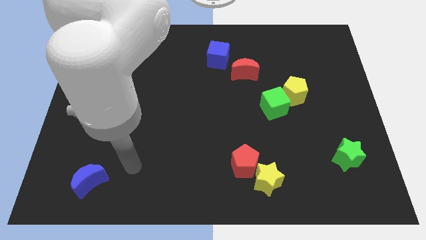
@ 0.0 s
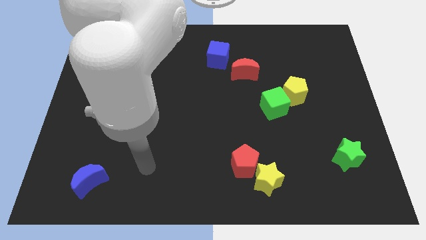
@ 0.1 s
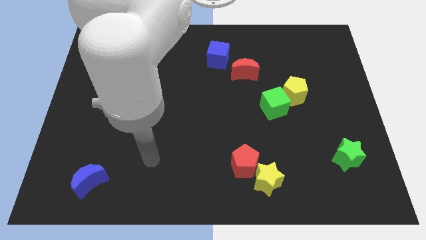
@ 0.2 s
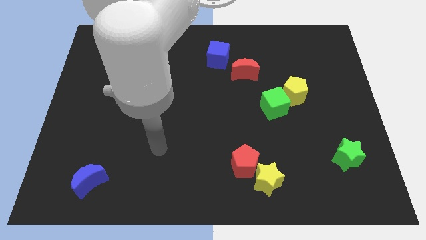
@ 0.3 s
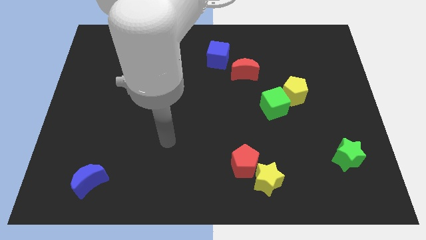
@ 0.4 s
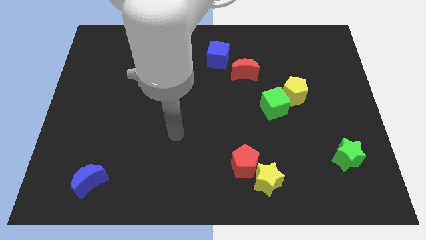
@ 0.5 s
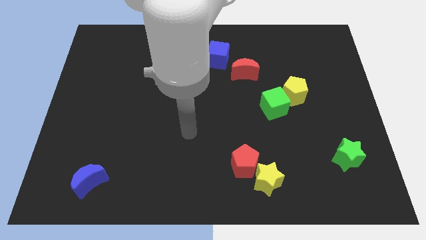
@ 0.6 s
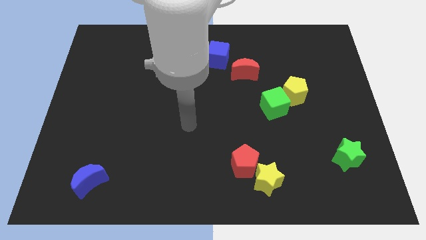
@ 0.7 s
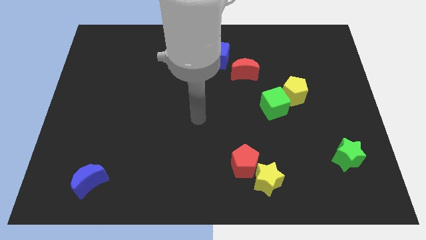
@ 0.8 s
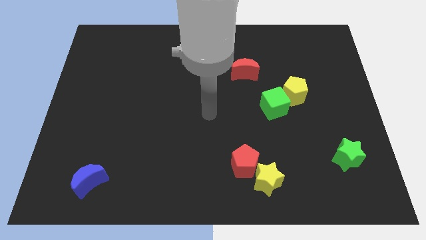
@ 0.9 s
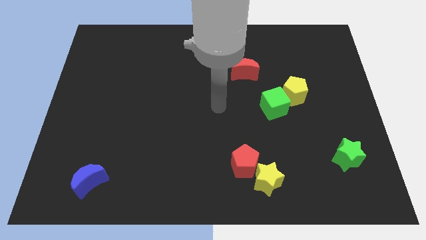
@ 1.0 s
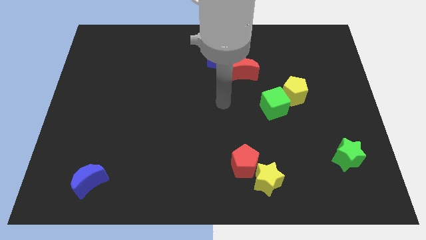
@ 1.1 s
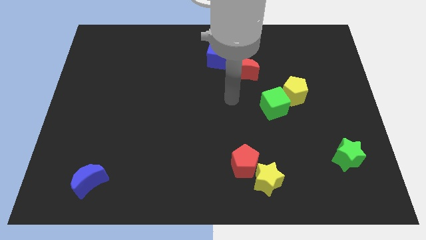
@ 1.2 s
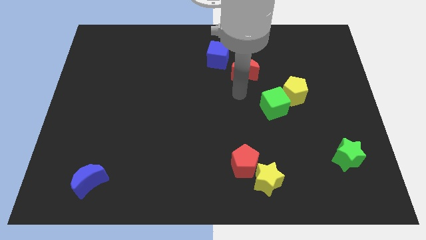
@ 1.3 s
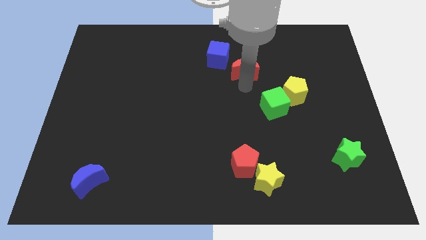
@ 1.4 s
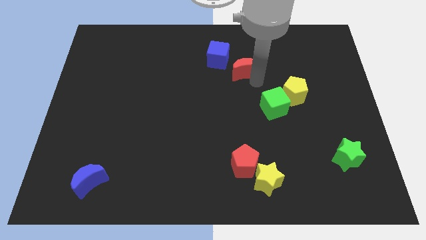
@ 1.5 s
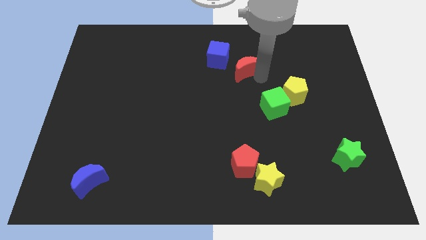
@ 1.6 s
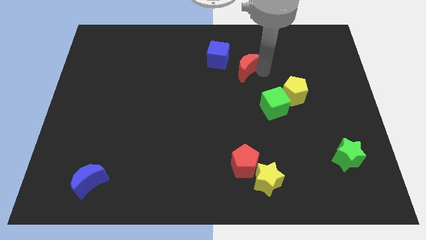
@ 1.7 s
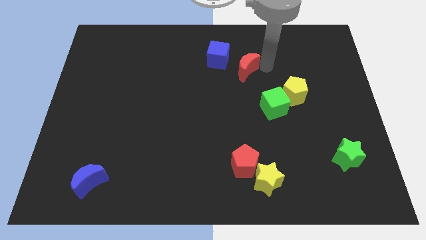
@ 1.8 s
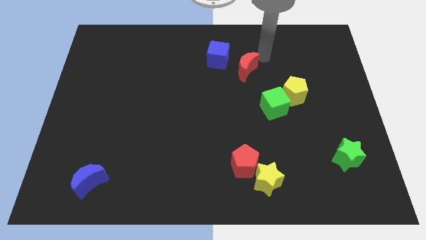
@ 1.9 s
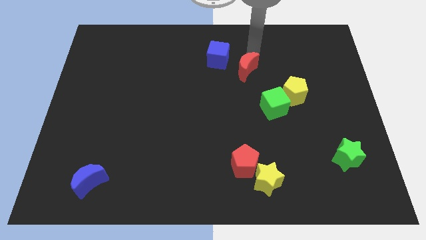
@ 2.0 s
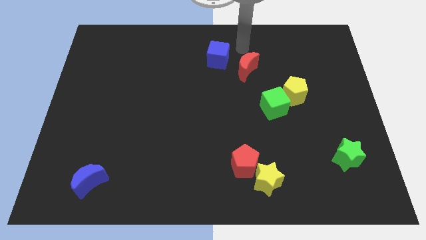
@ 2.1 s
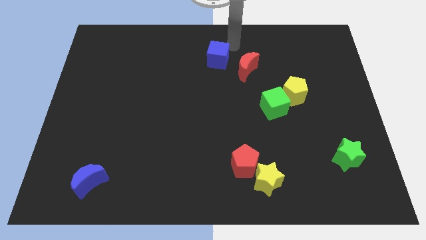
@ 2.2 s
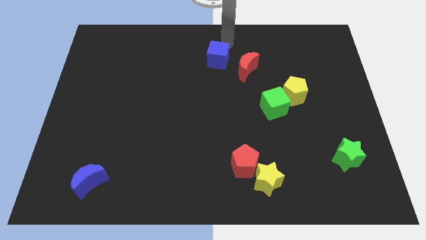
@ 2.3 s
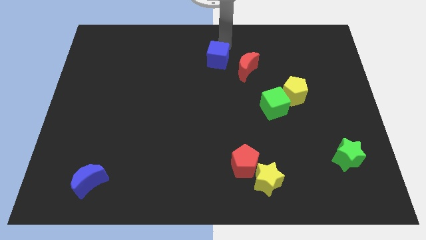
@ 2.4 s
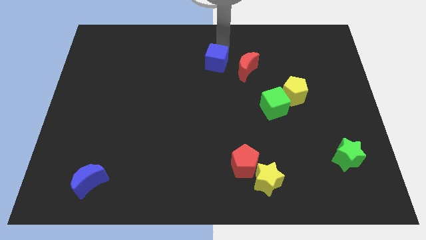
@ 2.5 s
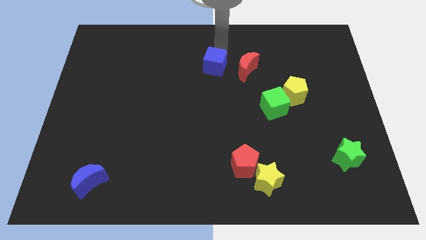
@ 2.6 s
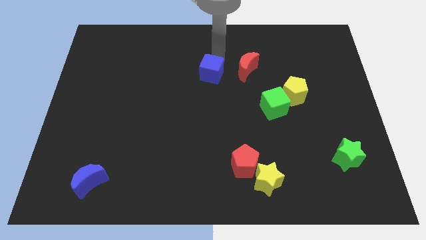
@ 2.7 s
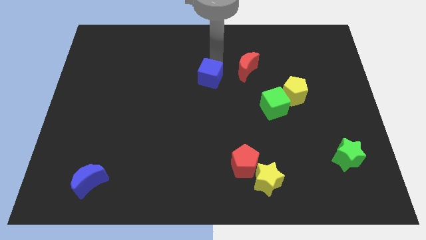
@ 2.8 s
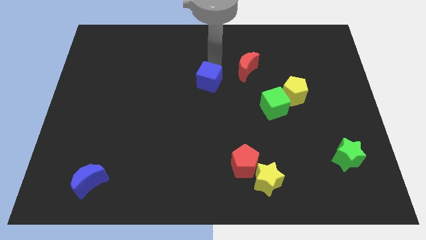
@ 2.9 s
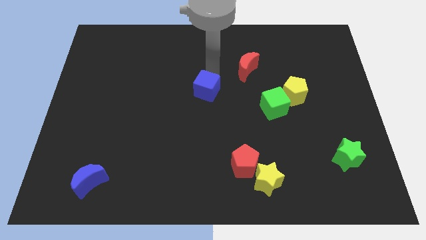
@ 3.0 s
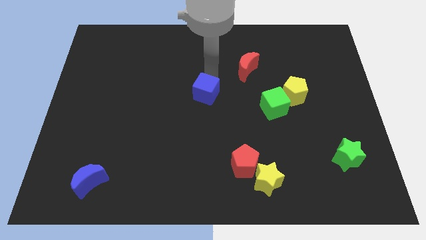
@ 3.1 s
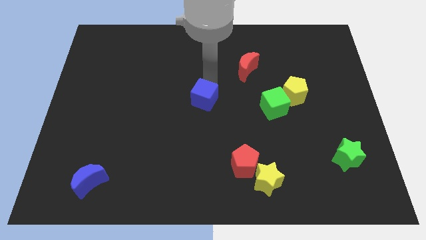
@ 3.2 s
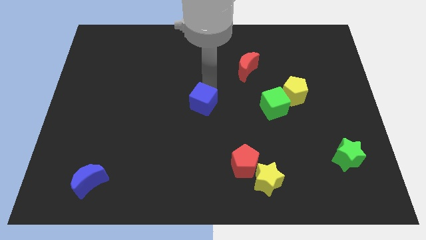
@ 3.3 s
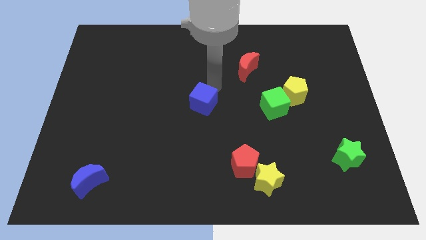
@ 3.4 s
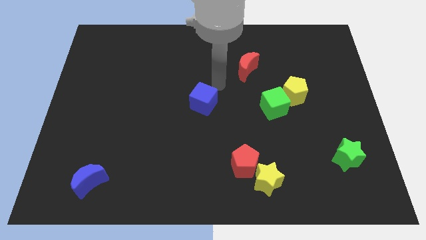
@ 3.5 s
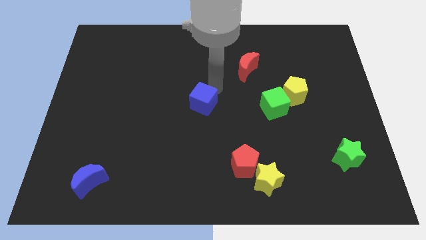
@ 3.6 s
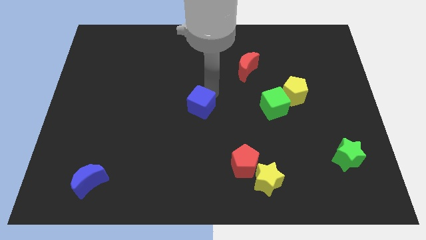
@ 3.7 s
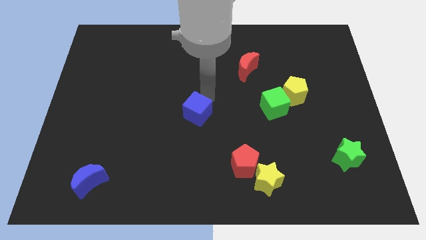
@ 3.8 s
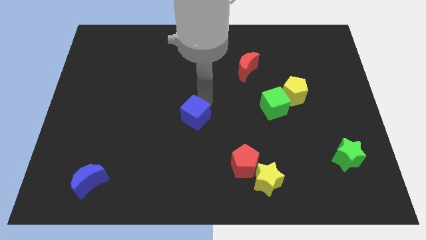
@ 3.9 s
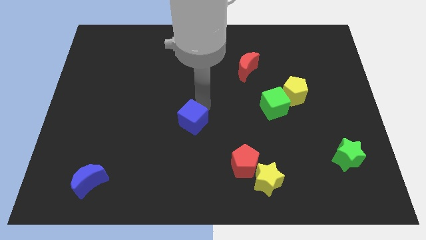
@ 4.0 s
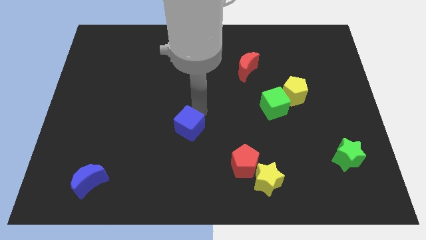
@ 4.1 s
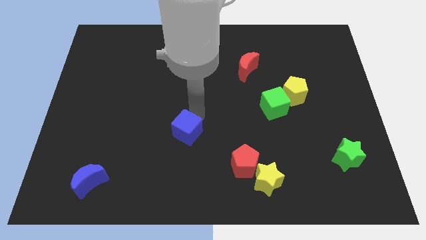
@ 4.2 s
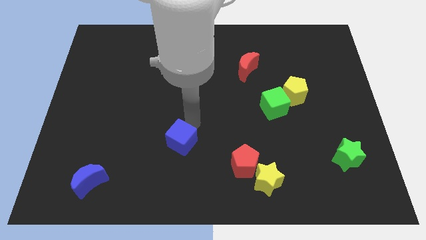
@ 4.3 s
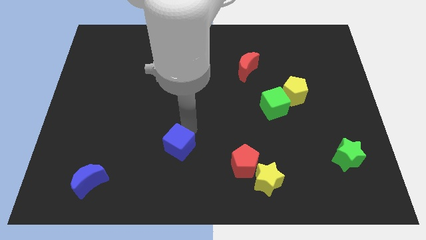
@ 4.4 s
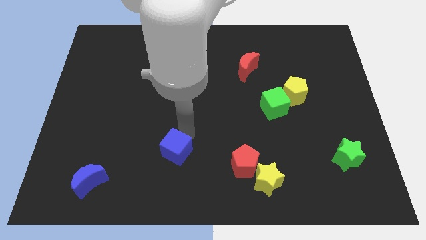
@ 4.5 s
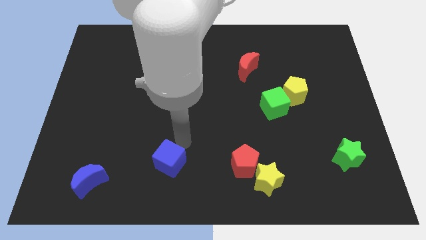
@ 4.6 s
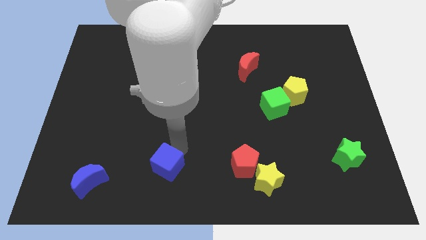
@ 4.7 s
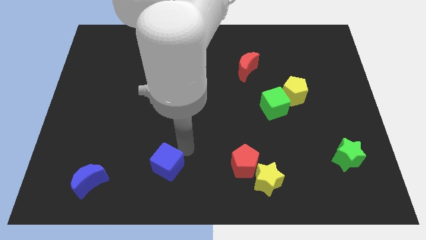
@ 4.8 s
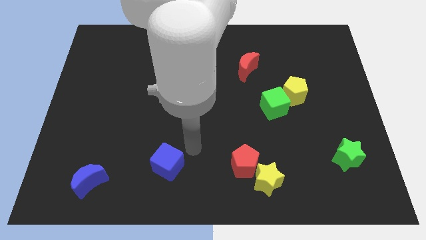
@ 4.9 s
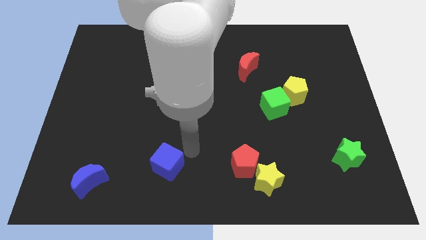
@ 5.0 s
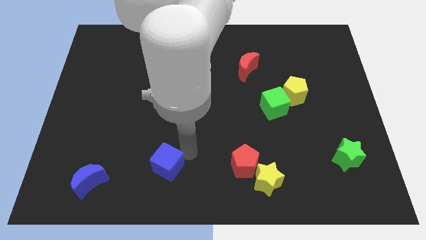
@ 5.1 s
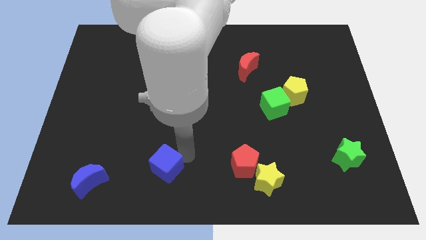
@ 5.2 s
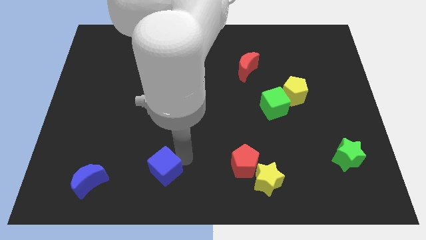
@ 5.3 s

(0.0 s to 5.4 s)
slide the blue cube to the right of the blue moon

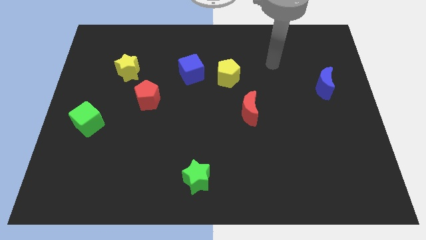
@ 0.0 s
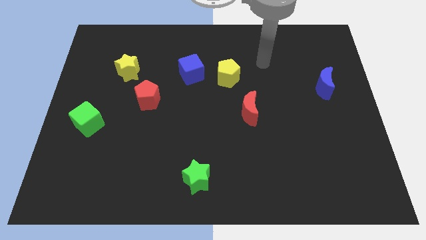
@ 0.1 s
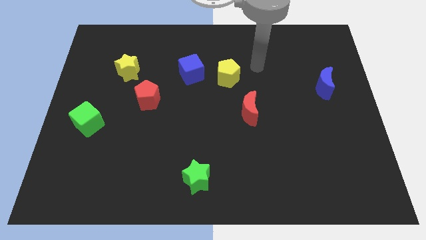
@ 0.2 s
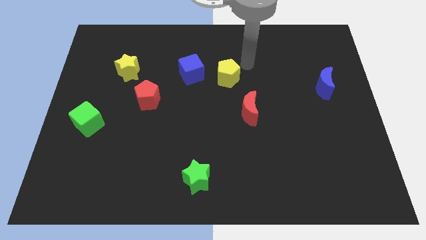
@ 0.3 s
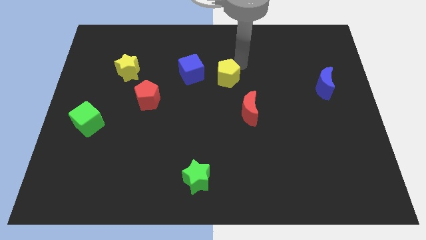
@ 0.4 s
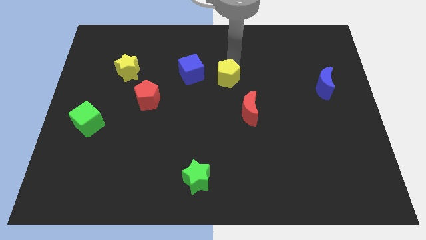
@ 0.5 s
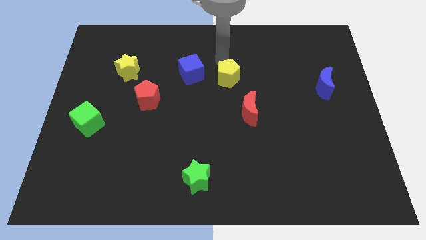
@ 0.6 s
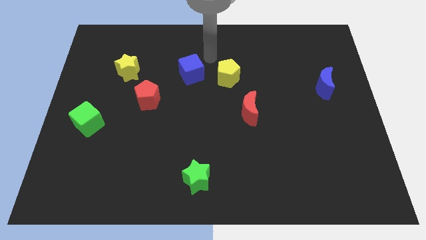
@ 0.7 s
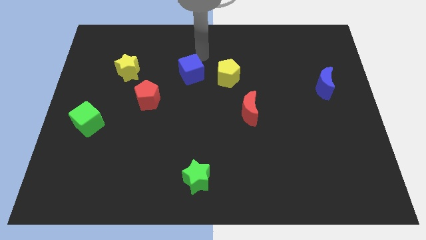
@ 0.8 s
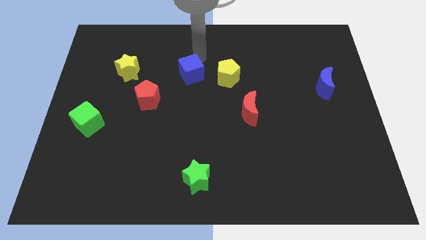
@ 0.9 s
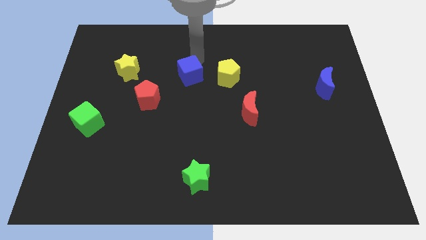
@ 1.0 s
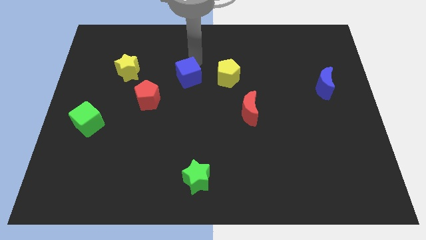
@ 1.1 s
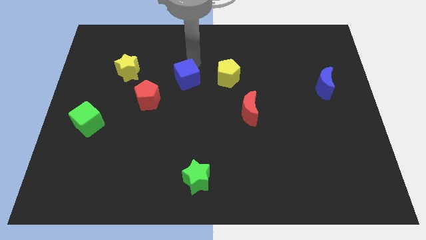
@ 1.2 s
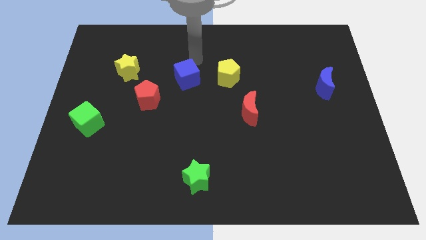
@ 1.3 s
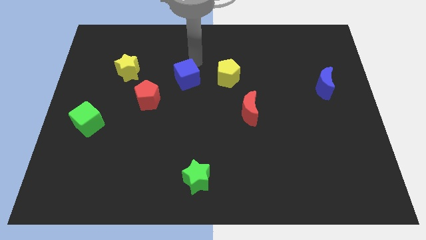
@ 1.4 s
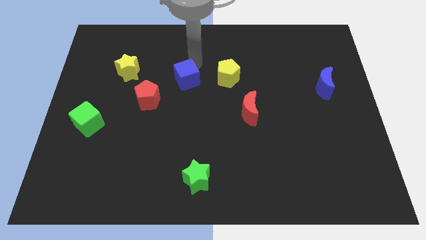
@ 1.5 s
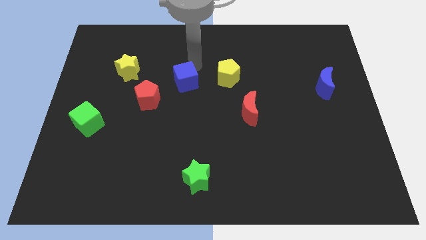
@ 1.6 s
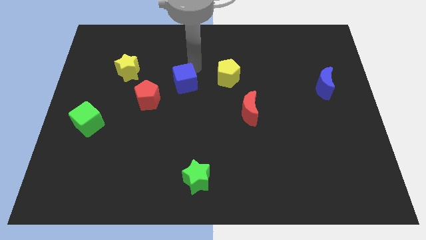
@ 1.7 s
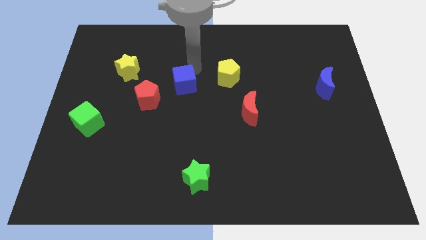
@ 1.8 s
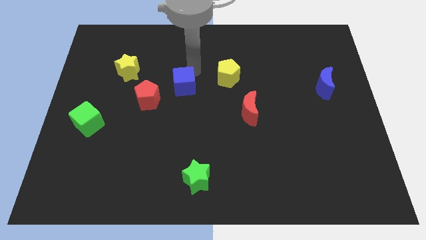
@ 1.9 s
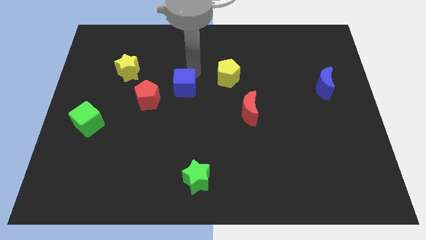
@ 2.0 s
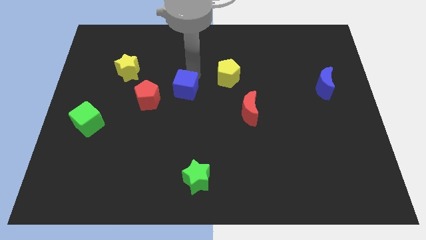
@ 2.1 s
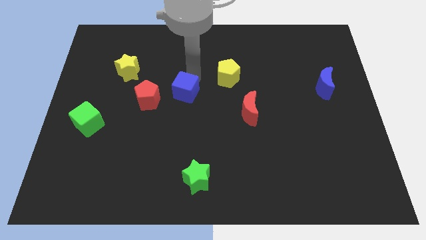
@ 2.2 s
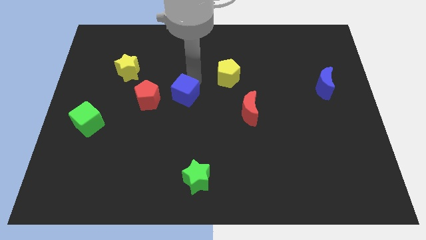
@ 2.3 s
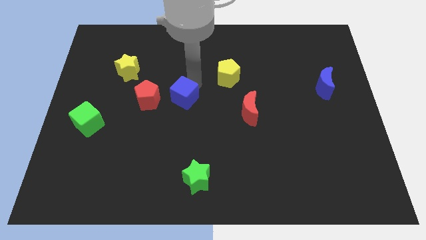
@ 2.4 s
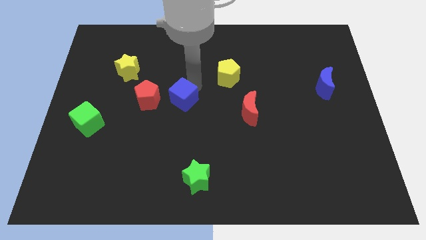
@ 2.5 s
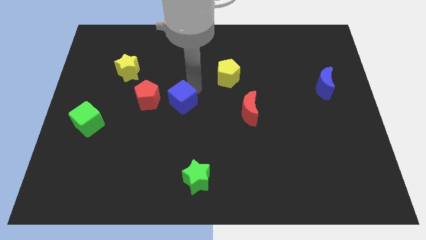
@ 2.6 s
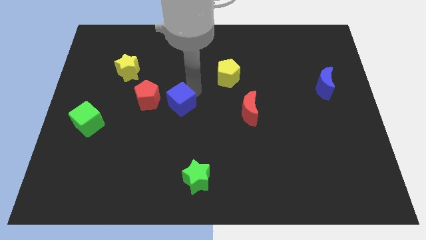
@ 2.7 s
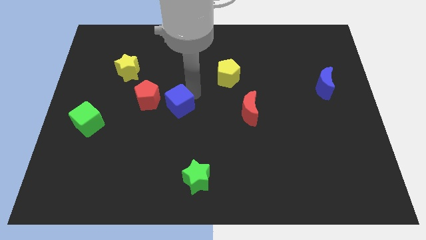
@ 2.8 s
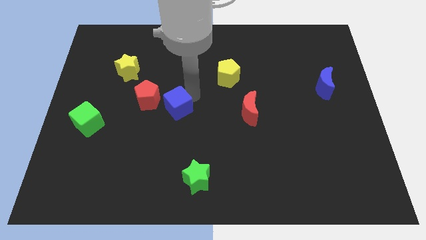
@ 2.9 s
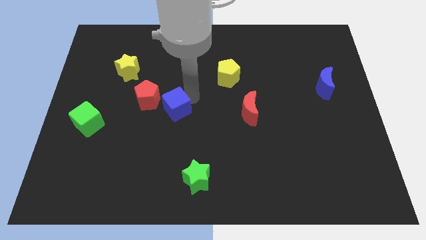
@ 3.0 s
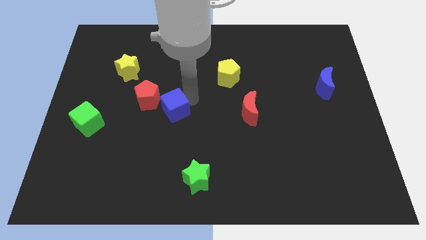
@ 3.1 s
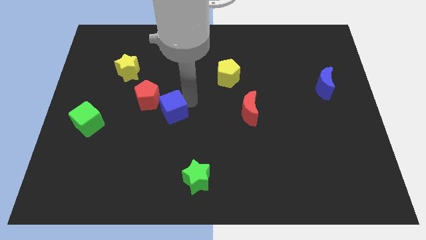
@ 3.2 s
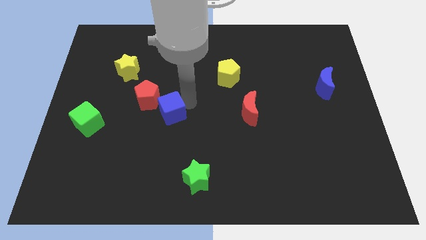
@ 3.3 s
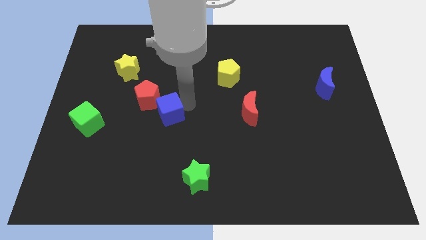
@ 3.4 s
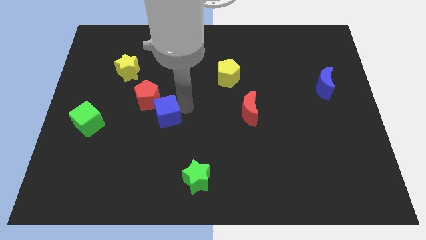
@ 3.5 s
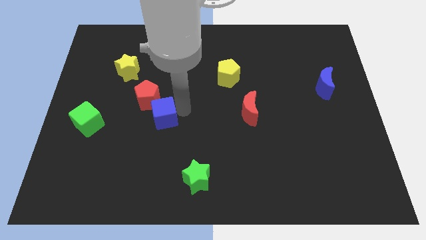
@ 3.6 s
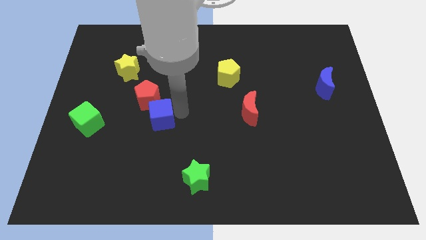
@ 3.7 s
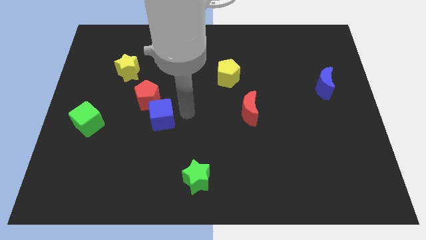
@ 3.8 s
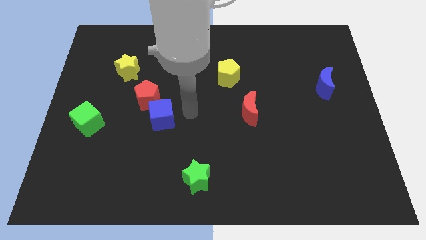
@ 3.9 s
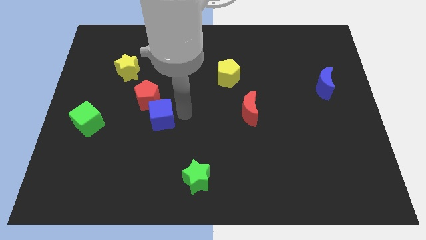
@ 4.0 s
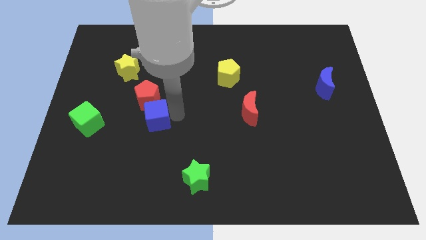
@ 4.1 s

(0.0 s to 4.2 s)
move the blue cube to the right of the green cube
